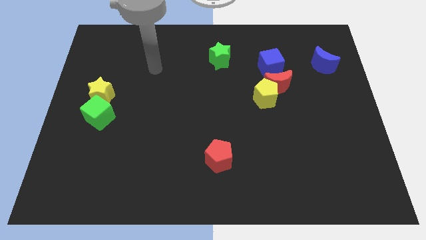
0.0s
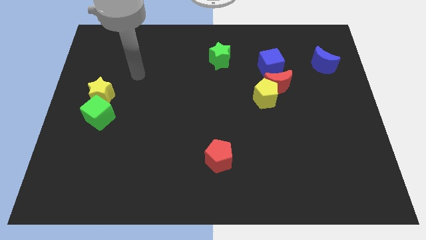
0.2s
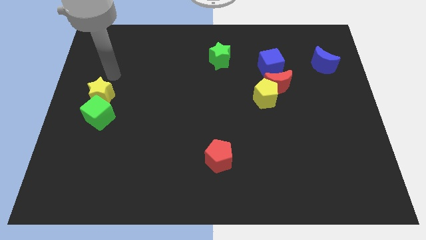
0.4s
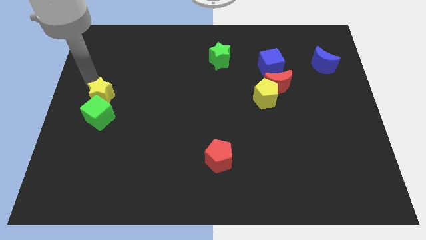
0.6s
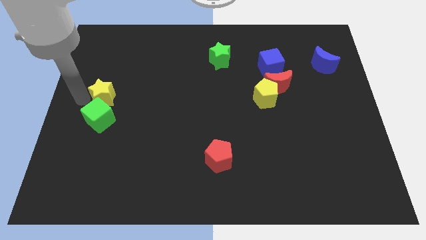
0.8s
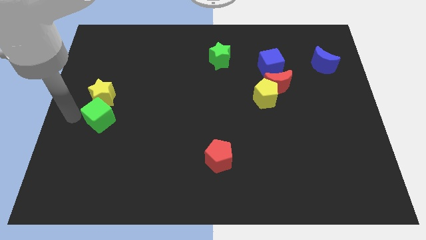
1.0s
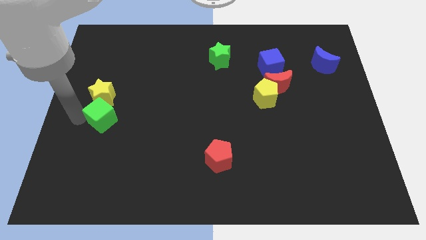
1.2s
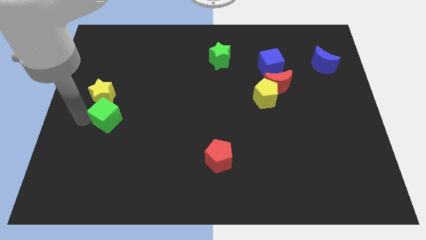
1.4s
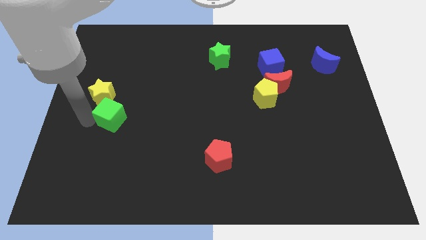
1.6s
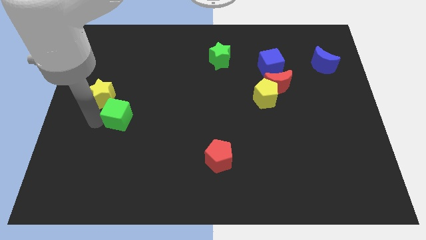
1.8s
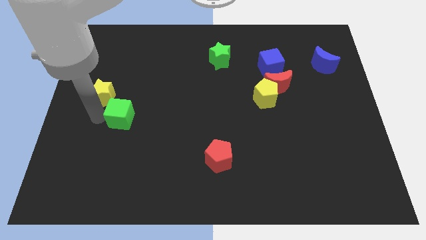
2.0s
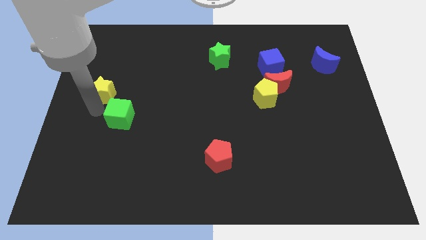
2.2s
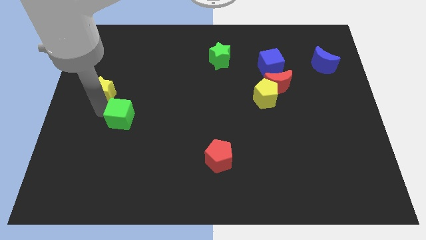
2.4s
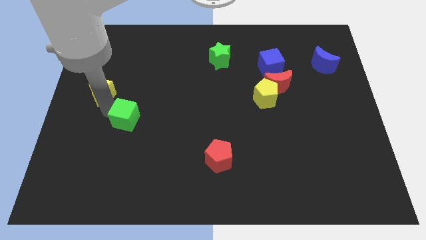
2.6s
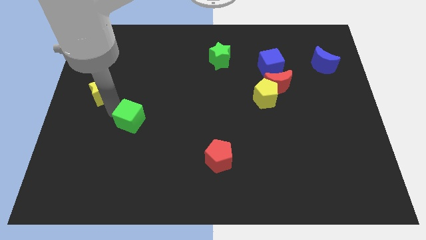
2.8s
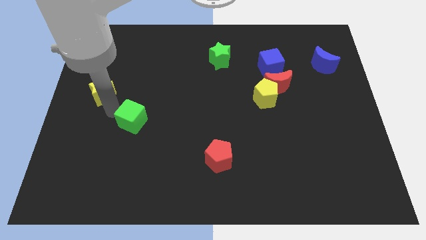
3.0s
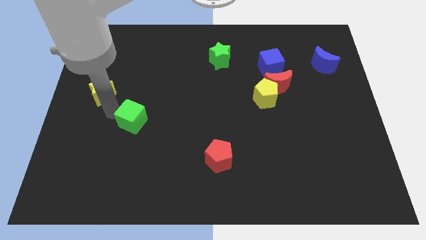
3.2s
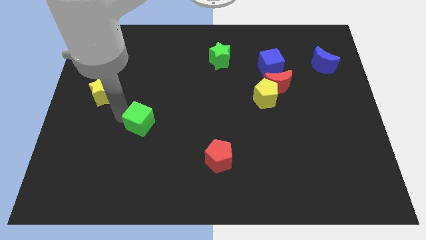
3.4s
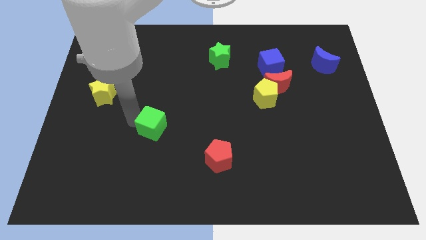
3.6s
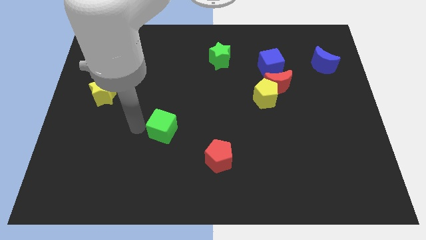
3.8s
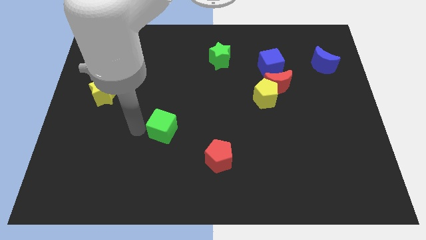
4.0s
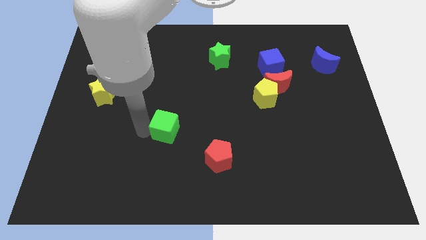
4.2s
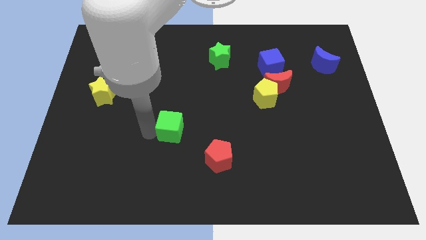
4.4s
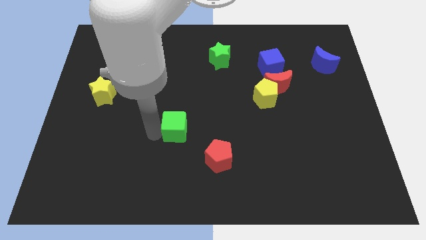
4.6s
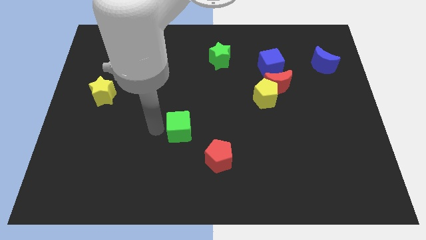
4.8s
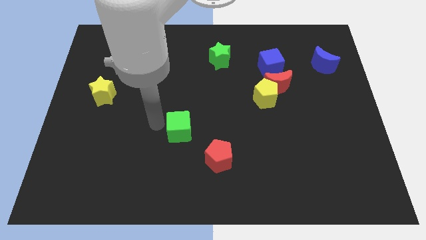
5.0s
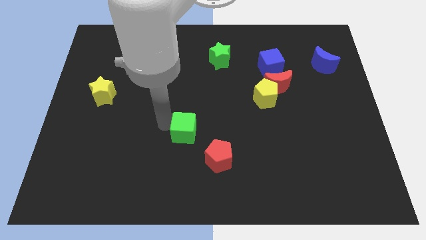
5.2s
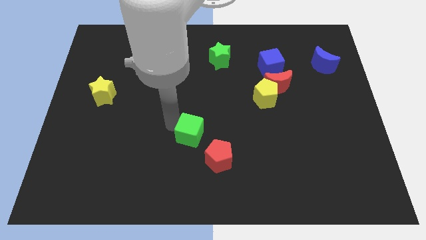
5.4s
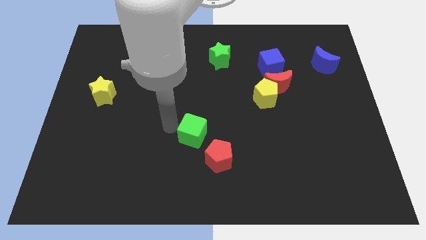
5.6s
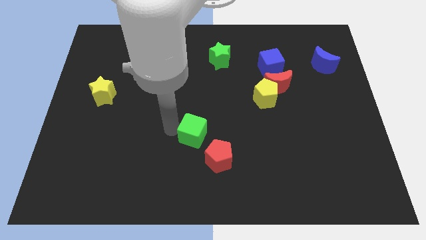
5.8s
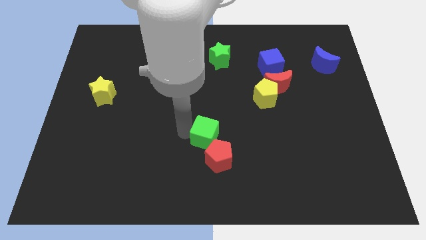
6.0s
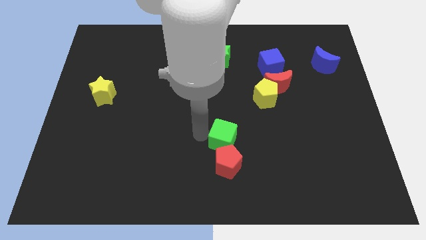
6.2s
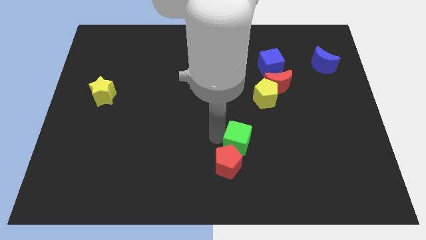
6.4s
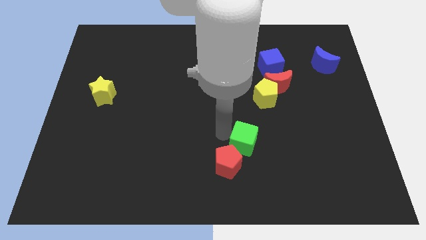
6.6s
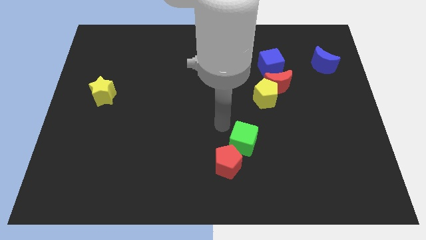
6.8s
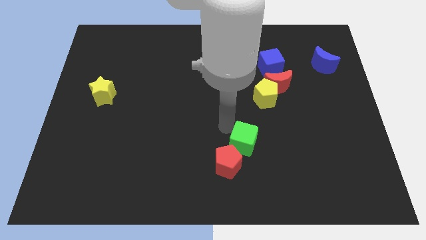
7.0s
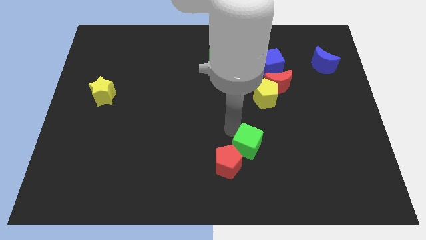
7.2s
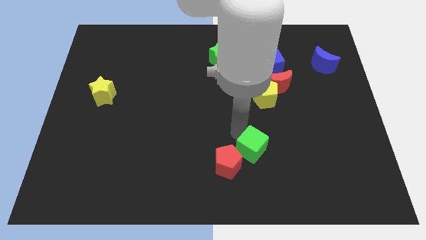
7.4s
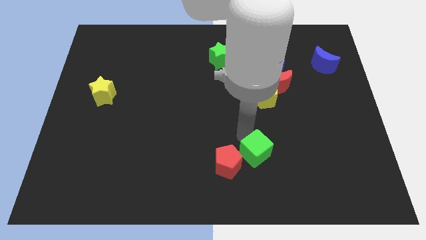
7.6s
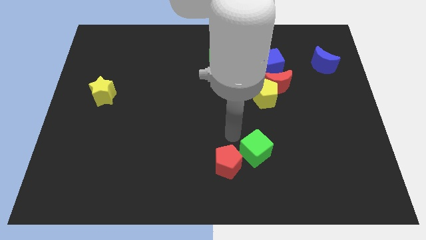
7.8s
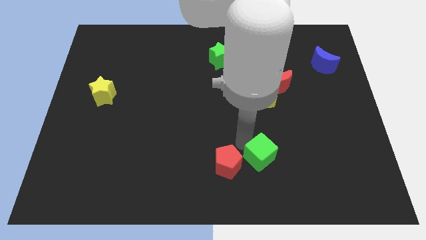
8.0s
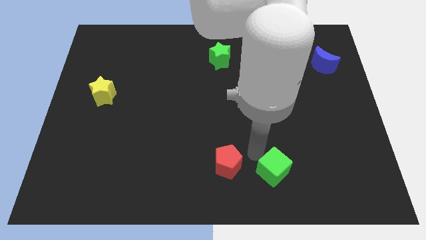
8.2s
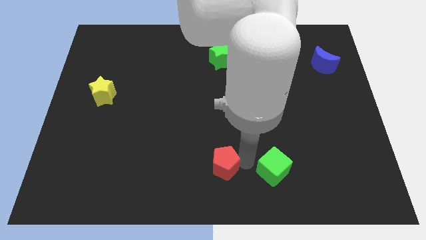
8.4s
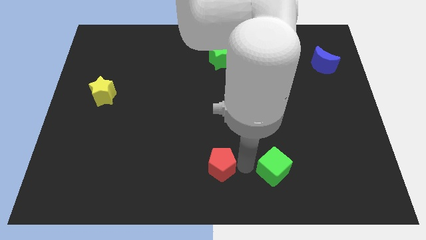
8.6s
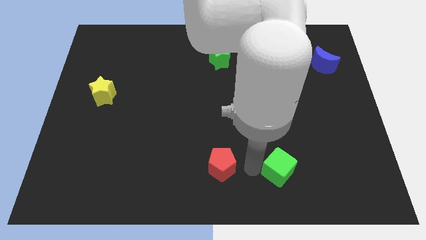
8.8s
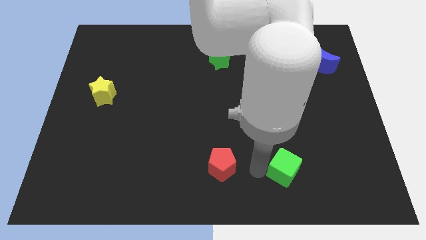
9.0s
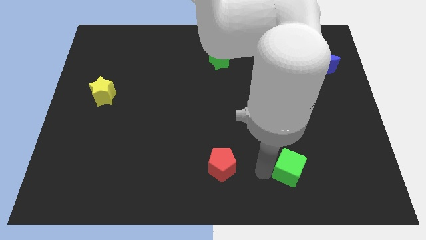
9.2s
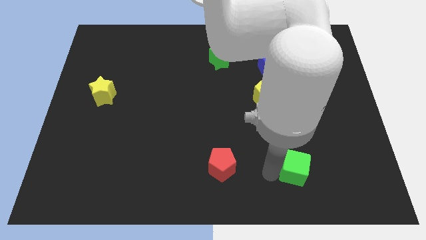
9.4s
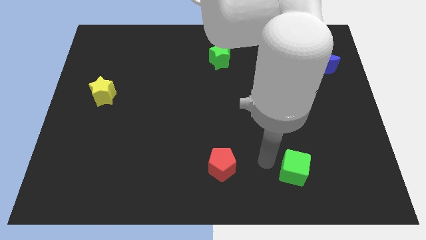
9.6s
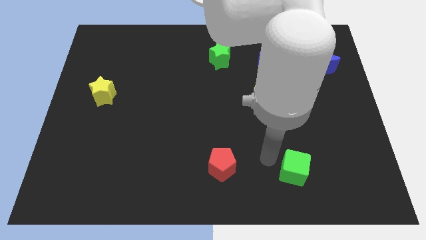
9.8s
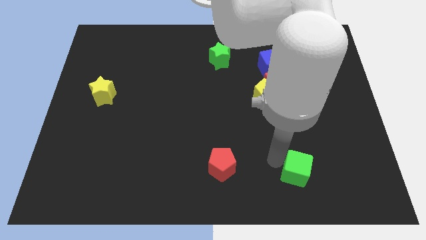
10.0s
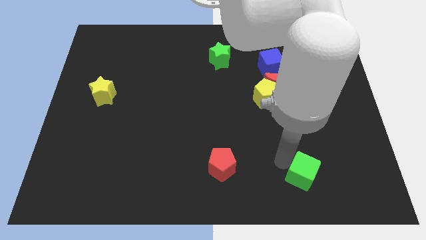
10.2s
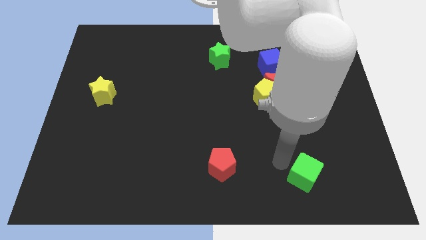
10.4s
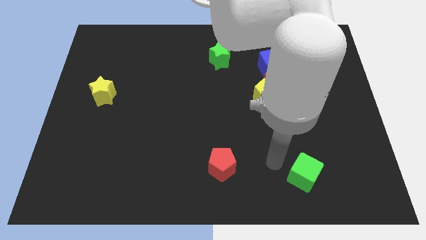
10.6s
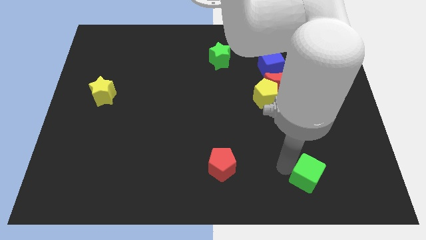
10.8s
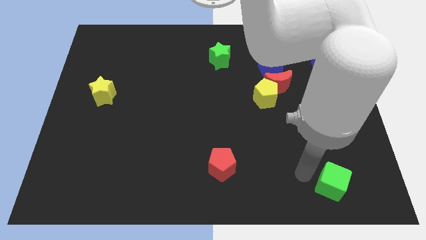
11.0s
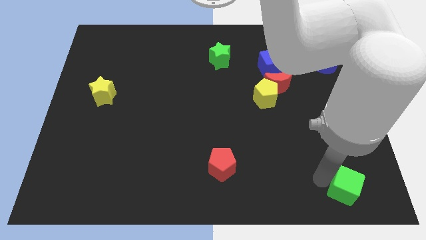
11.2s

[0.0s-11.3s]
push the green cube to the bottom right corner

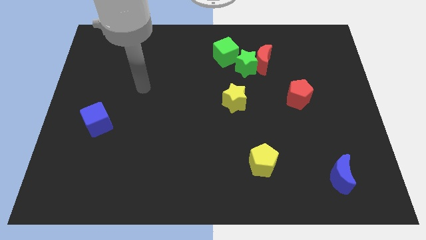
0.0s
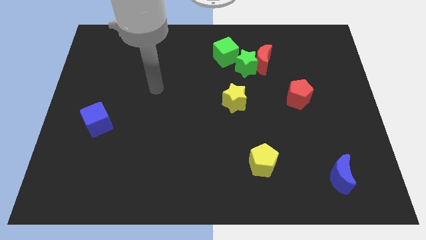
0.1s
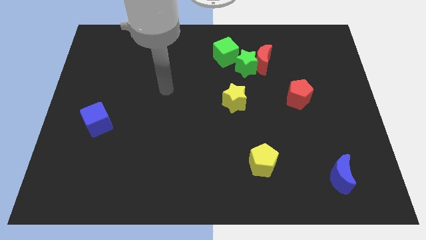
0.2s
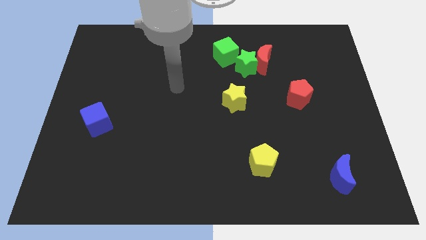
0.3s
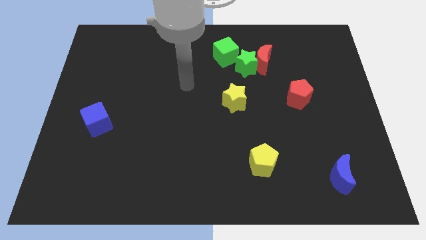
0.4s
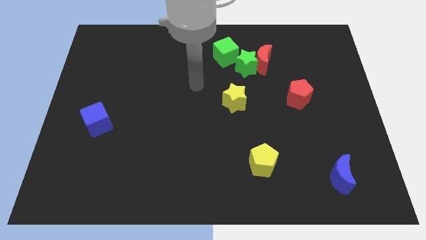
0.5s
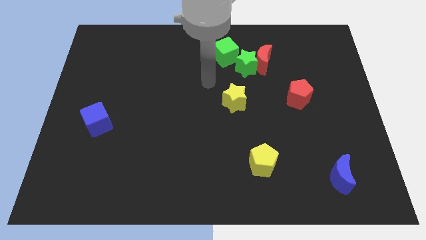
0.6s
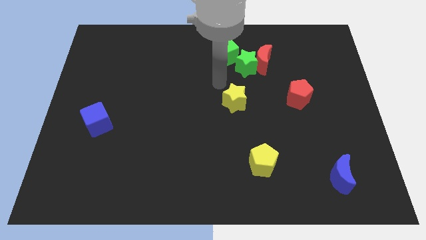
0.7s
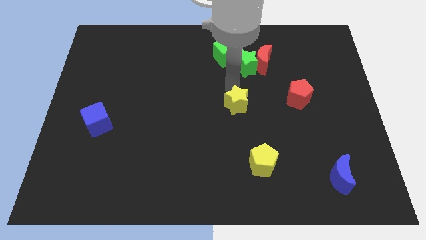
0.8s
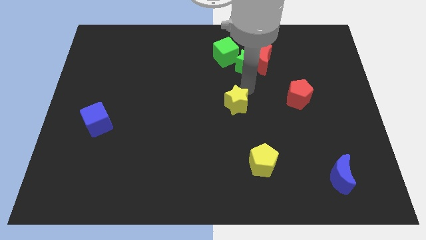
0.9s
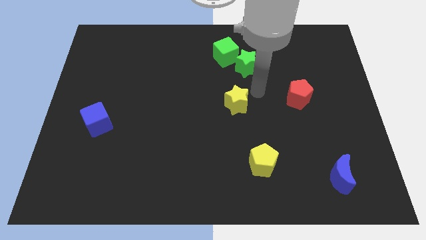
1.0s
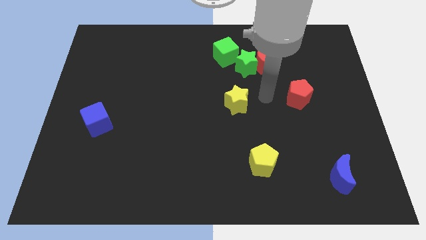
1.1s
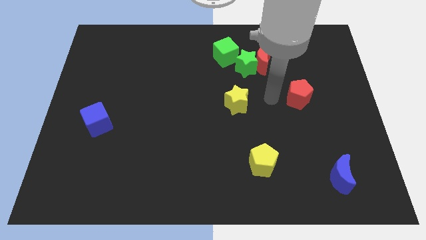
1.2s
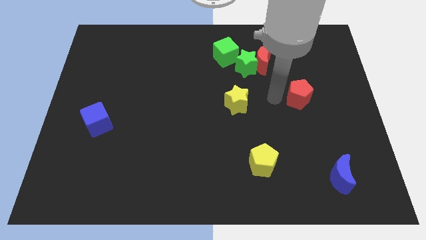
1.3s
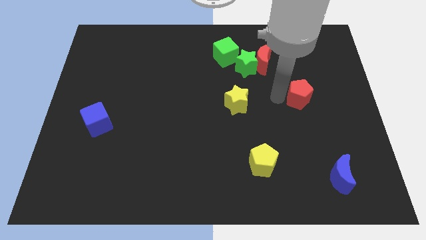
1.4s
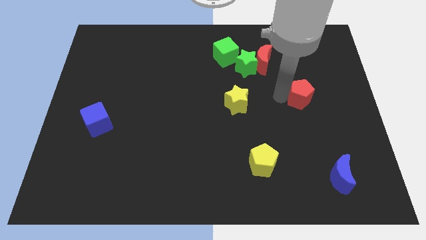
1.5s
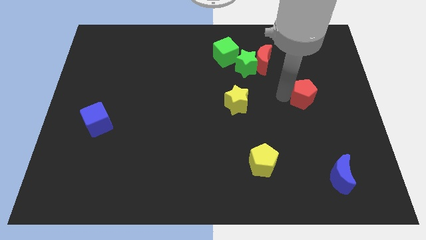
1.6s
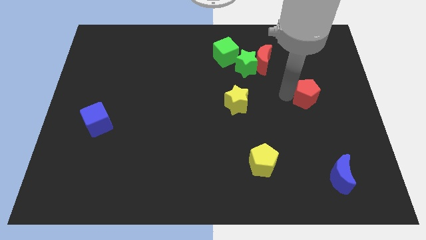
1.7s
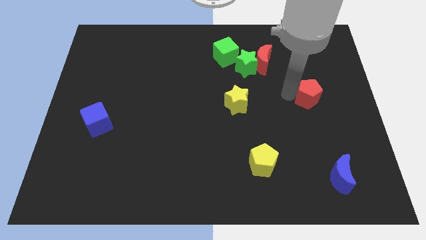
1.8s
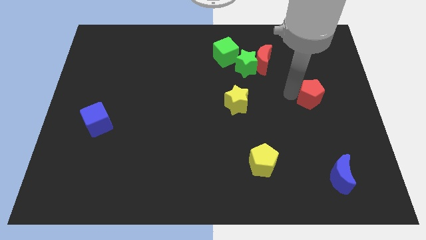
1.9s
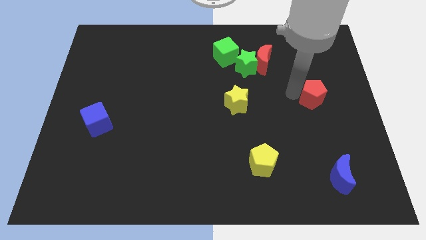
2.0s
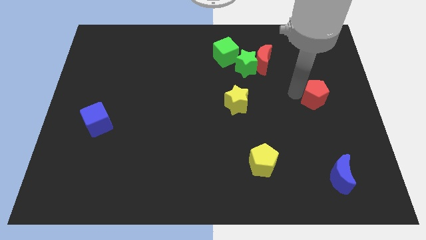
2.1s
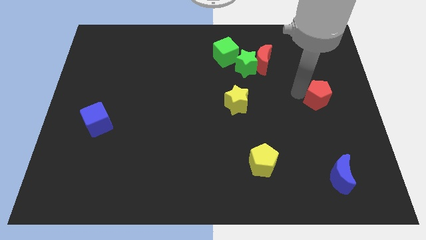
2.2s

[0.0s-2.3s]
put the red pentagon to the right side
